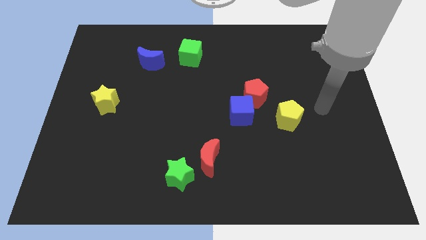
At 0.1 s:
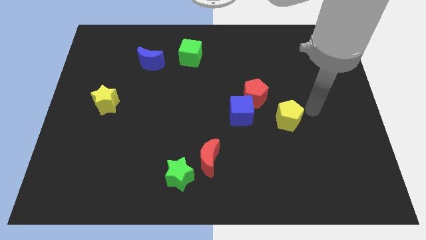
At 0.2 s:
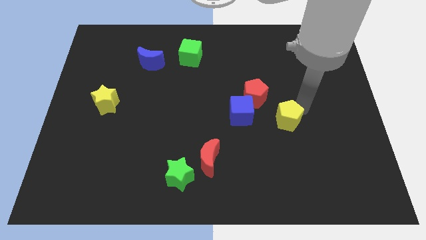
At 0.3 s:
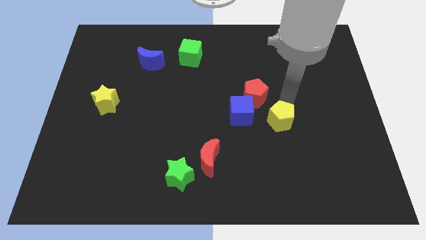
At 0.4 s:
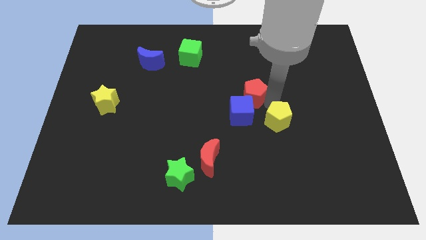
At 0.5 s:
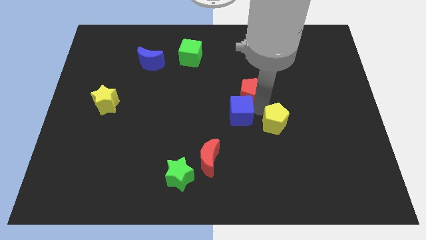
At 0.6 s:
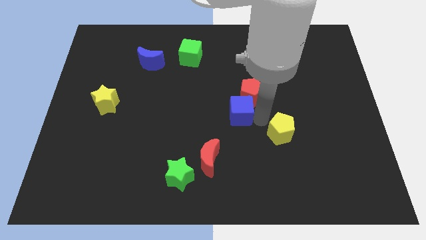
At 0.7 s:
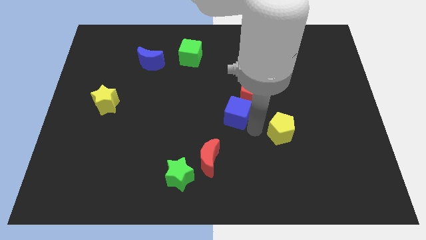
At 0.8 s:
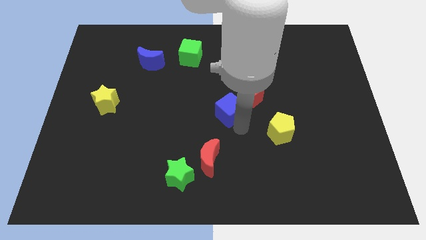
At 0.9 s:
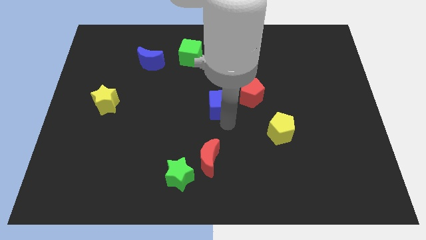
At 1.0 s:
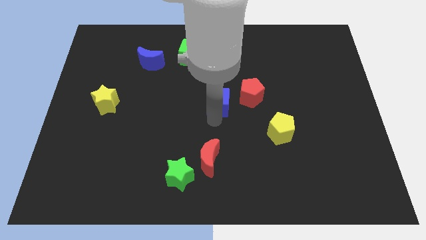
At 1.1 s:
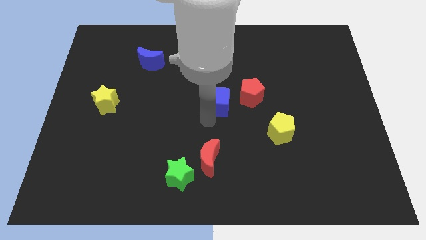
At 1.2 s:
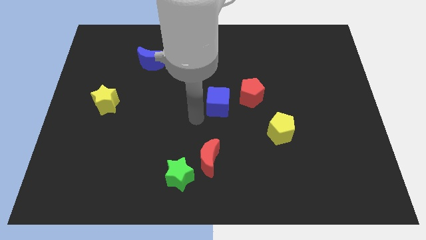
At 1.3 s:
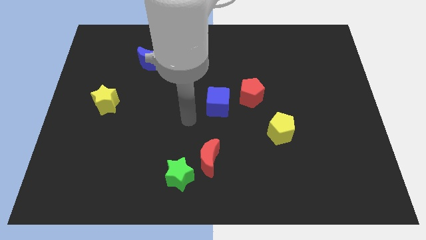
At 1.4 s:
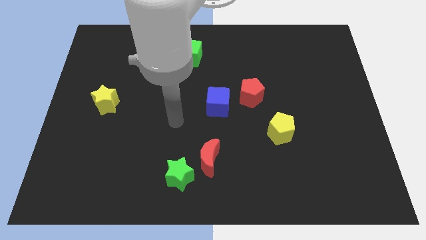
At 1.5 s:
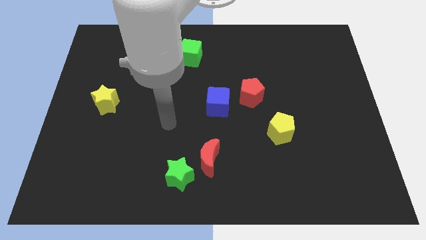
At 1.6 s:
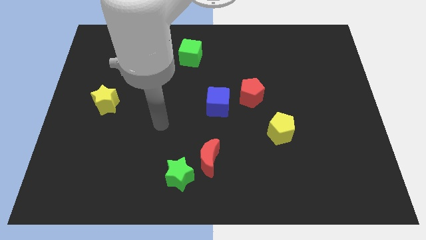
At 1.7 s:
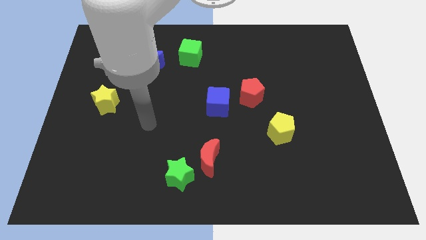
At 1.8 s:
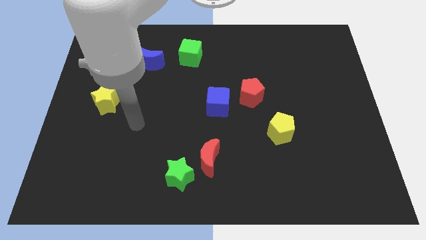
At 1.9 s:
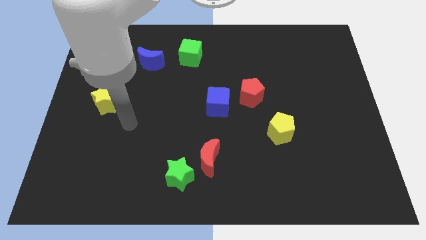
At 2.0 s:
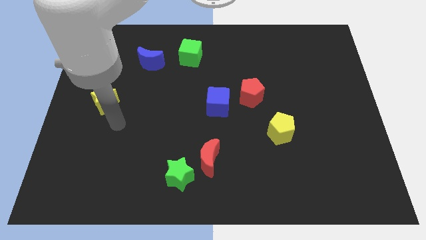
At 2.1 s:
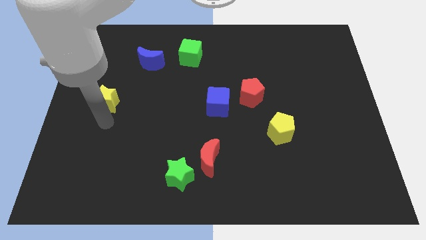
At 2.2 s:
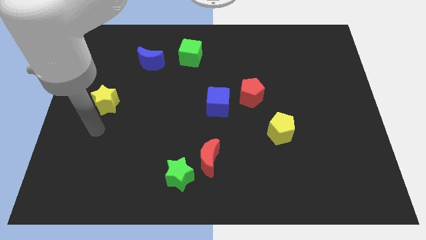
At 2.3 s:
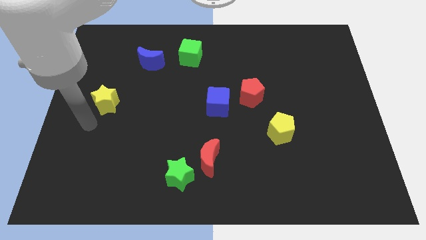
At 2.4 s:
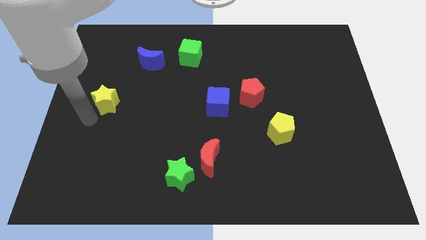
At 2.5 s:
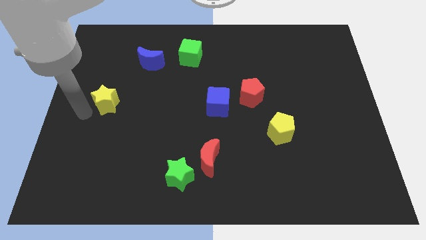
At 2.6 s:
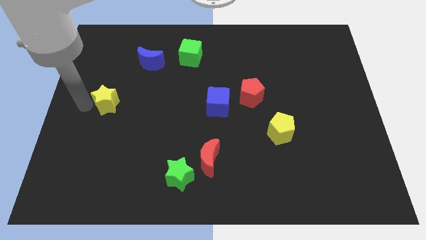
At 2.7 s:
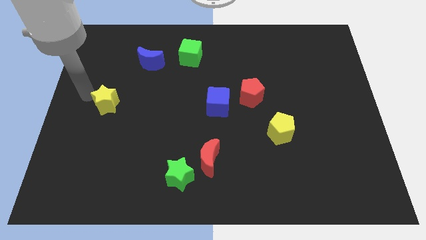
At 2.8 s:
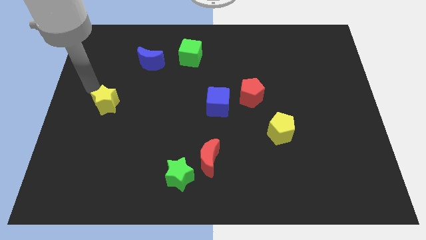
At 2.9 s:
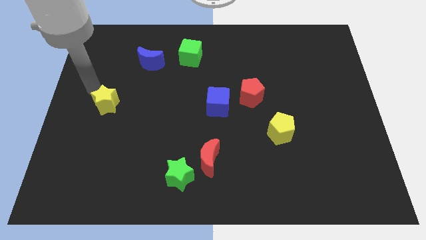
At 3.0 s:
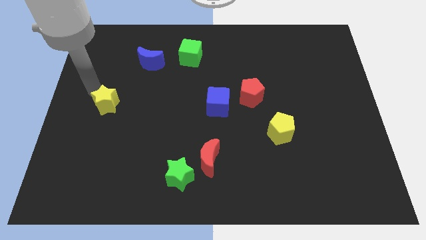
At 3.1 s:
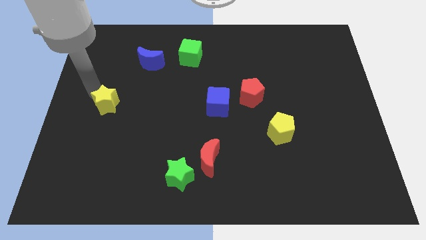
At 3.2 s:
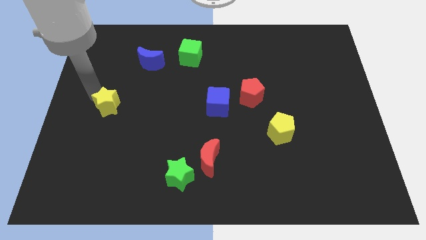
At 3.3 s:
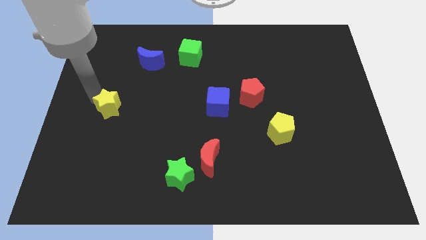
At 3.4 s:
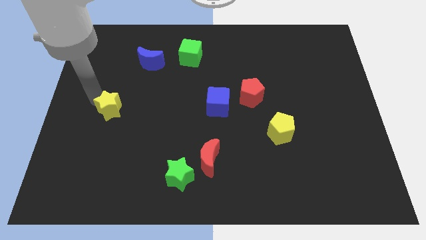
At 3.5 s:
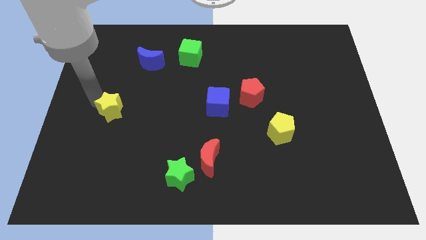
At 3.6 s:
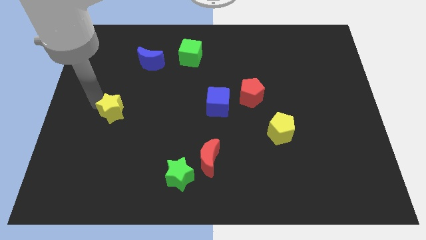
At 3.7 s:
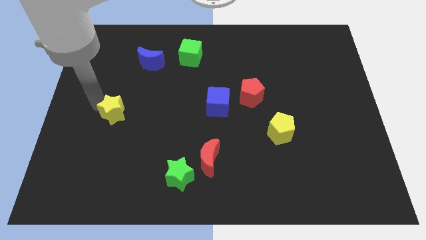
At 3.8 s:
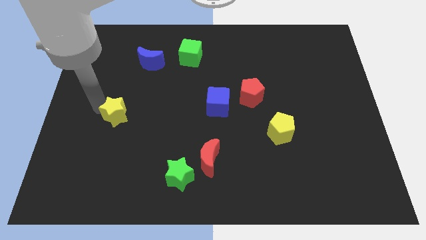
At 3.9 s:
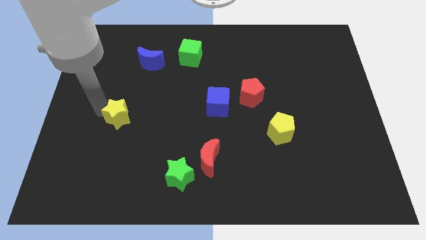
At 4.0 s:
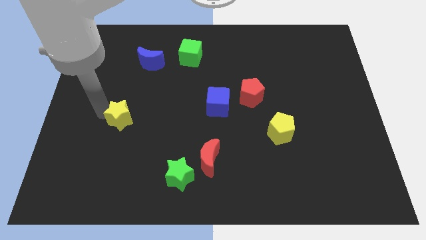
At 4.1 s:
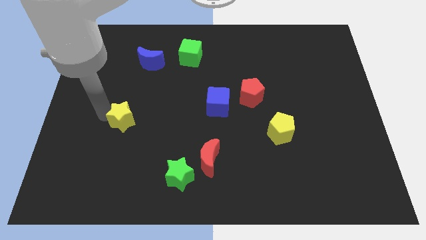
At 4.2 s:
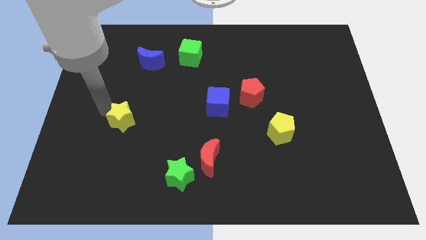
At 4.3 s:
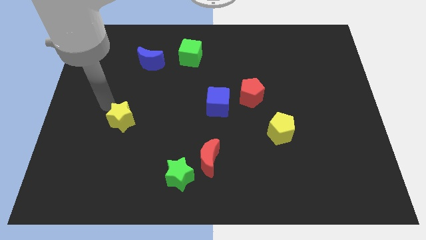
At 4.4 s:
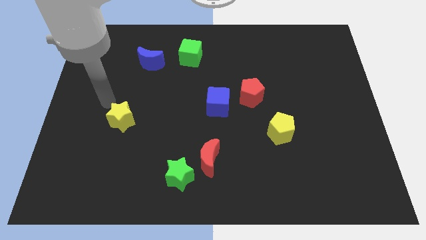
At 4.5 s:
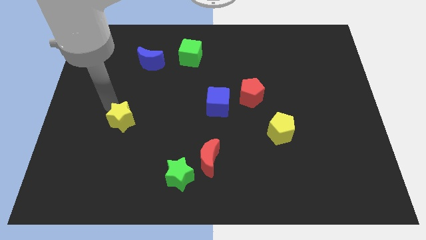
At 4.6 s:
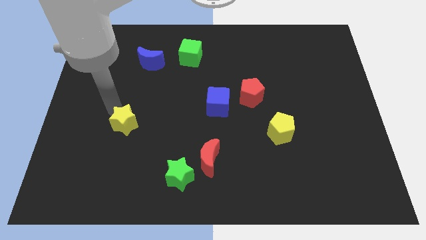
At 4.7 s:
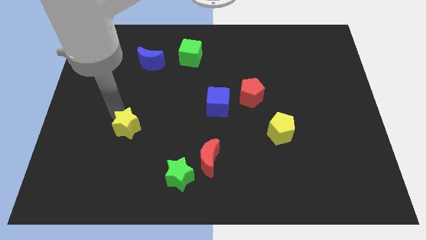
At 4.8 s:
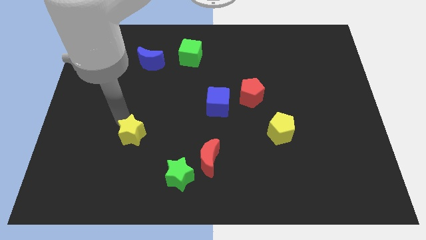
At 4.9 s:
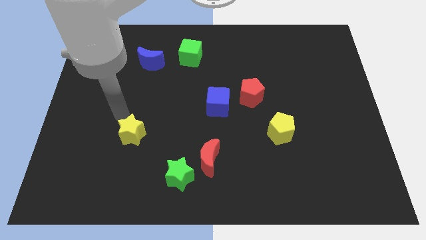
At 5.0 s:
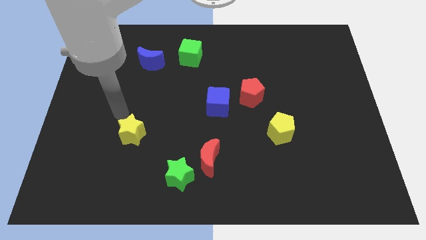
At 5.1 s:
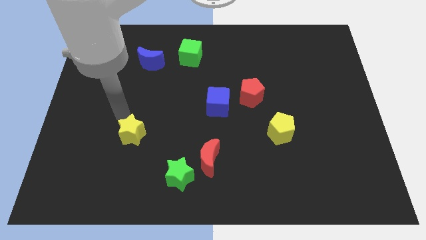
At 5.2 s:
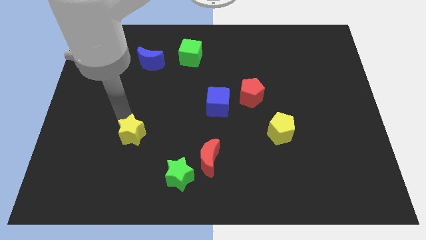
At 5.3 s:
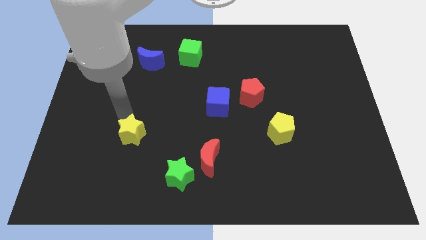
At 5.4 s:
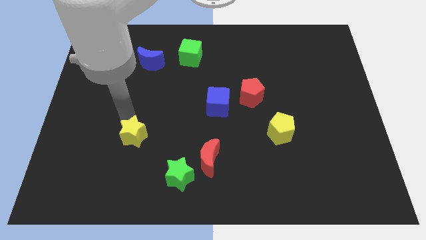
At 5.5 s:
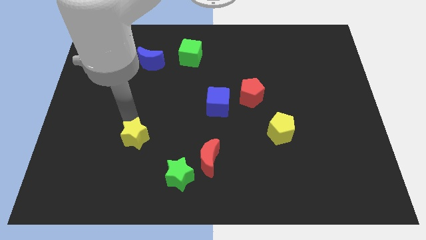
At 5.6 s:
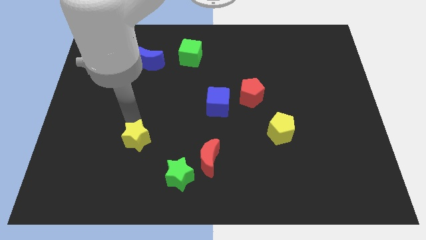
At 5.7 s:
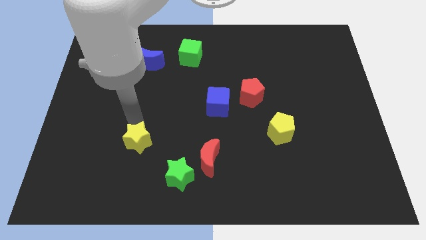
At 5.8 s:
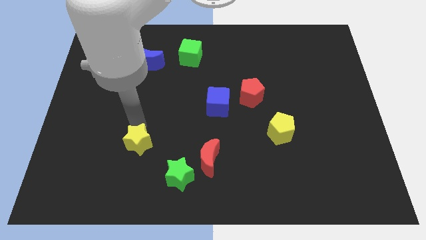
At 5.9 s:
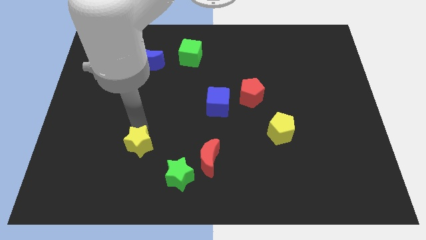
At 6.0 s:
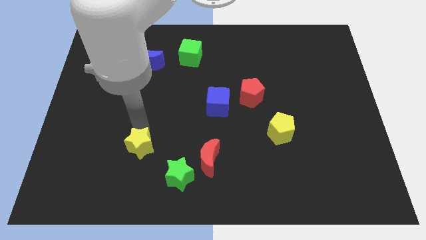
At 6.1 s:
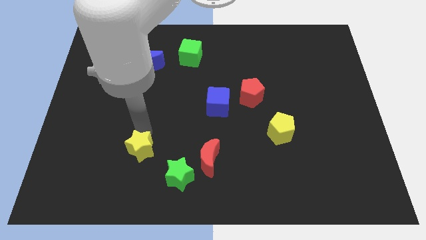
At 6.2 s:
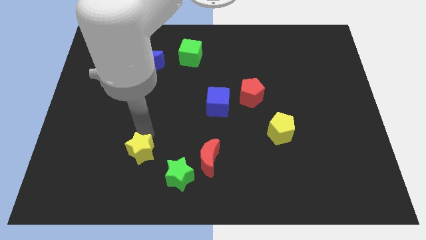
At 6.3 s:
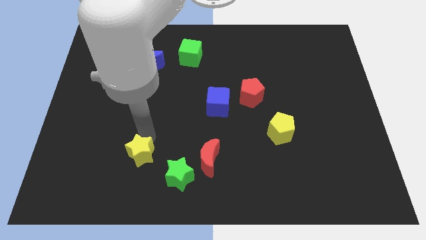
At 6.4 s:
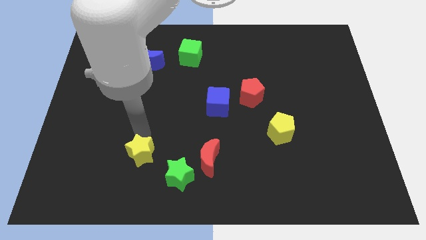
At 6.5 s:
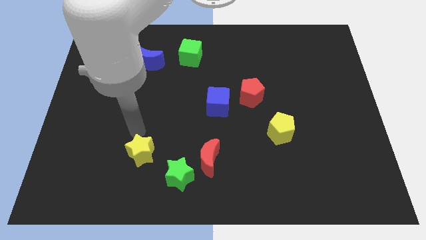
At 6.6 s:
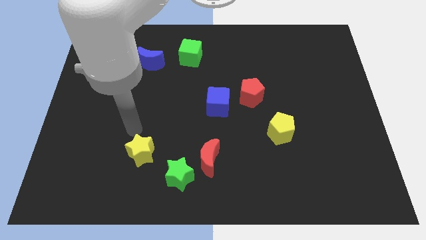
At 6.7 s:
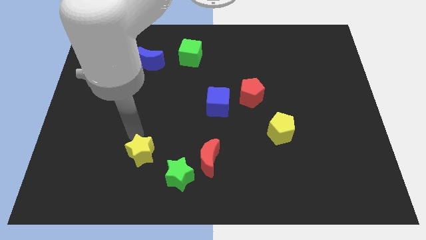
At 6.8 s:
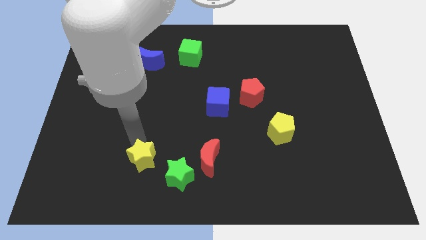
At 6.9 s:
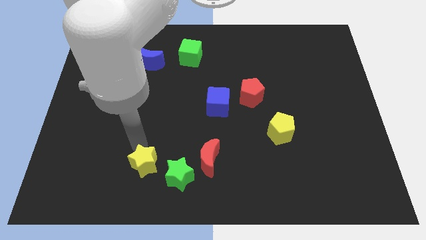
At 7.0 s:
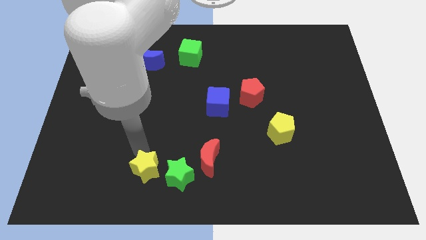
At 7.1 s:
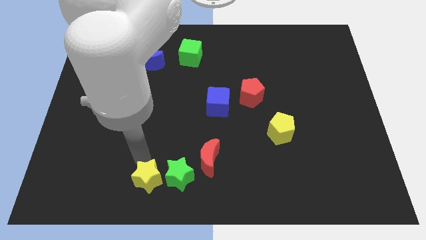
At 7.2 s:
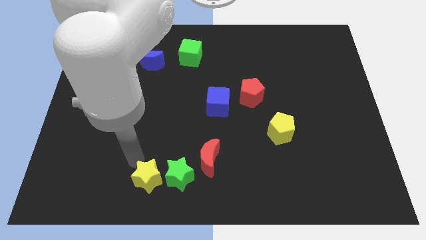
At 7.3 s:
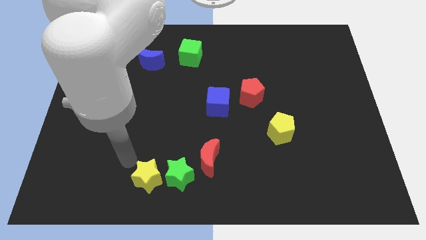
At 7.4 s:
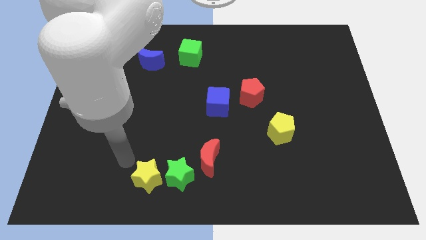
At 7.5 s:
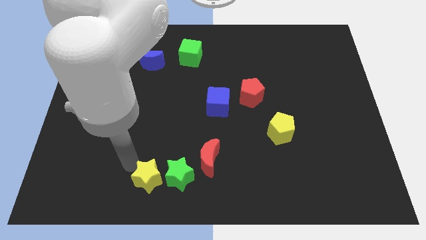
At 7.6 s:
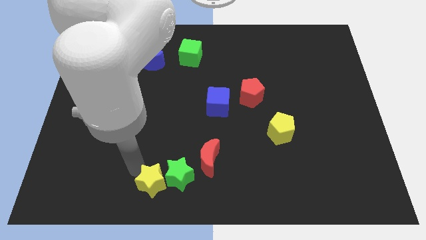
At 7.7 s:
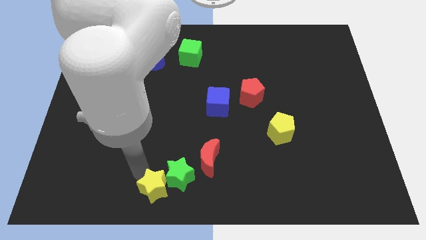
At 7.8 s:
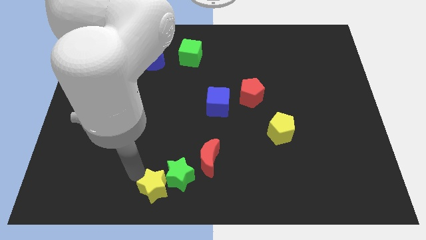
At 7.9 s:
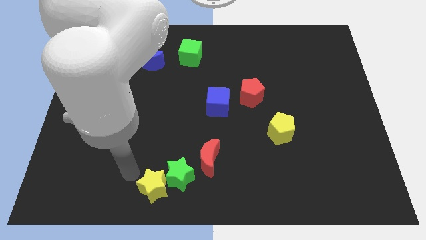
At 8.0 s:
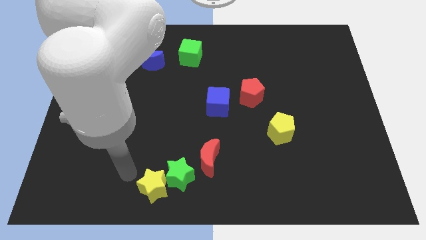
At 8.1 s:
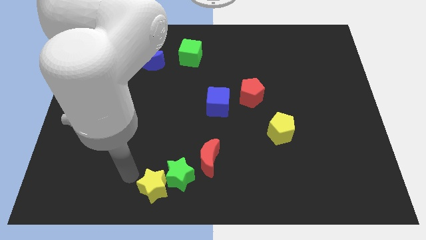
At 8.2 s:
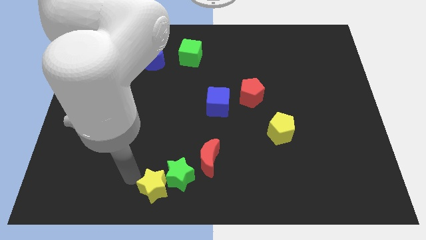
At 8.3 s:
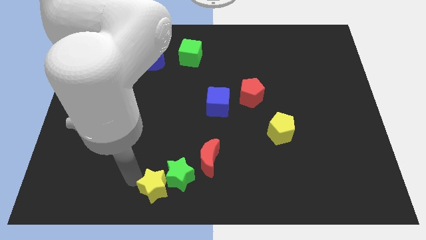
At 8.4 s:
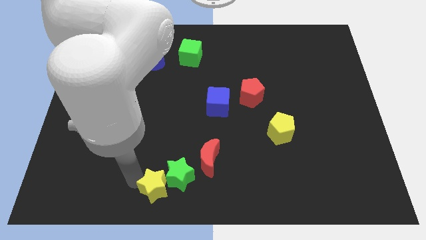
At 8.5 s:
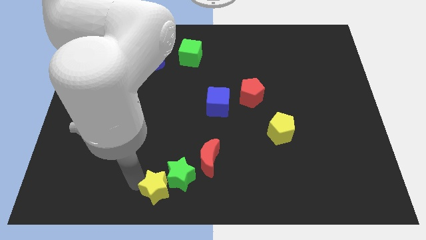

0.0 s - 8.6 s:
push the yellow star diagonally down and to the left of the red moon
